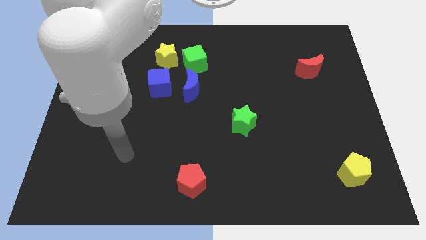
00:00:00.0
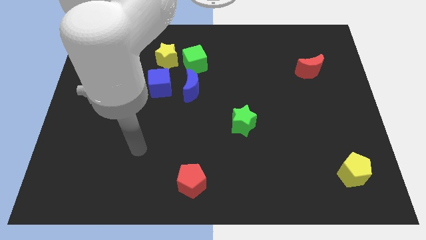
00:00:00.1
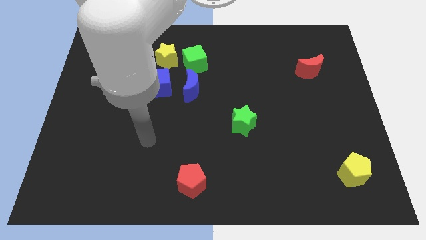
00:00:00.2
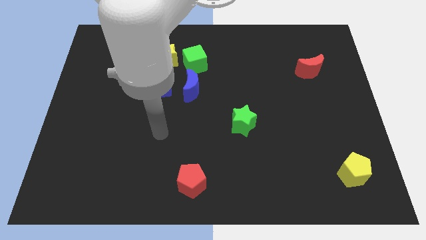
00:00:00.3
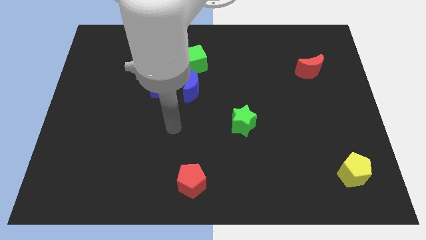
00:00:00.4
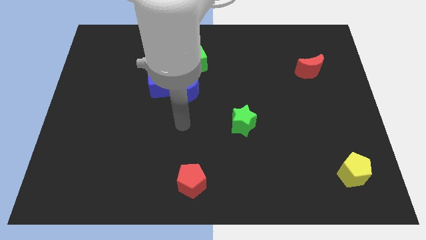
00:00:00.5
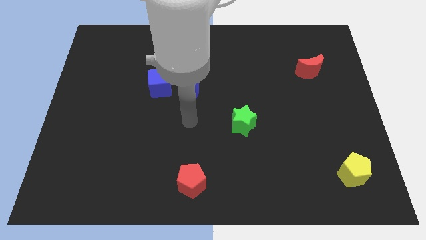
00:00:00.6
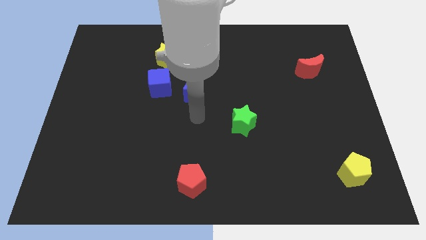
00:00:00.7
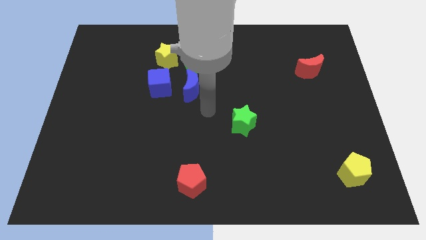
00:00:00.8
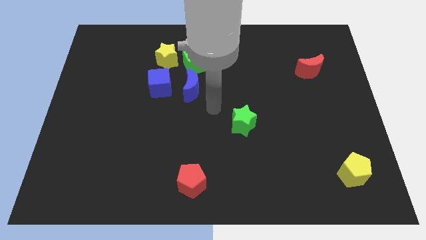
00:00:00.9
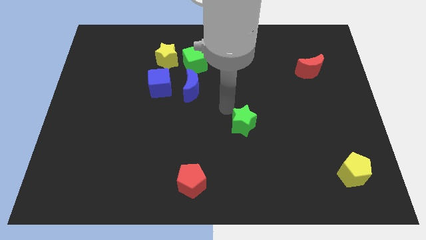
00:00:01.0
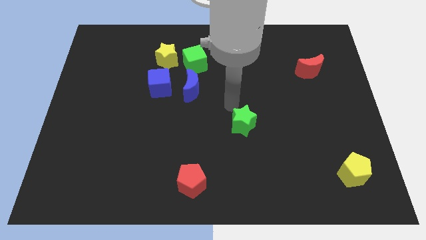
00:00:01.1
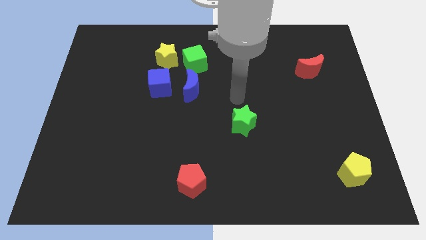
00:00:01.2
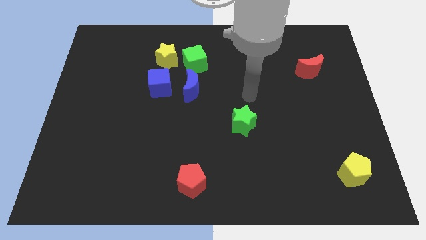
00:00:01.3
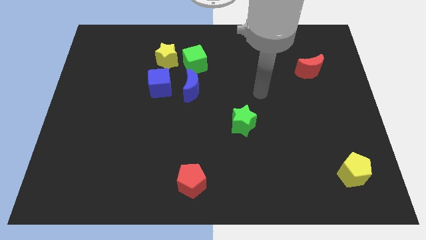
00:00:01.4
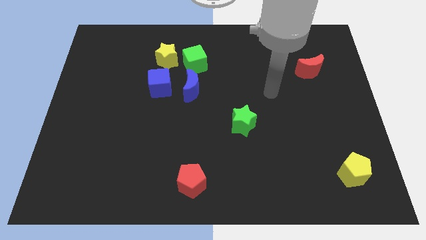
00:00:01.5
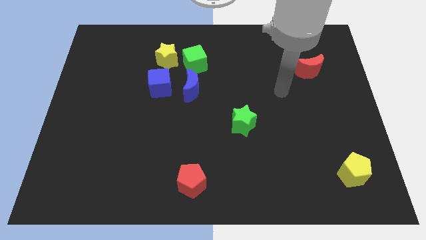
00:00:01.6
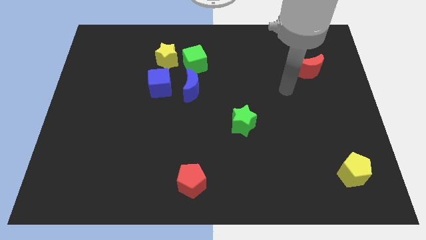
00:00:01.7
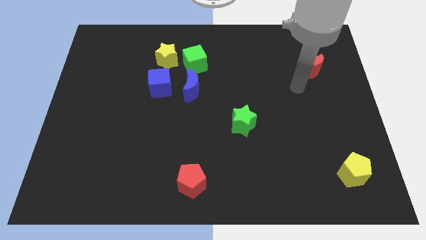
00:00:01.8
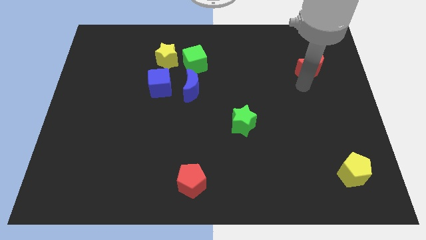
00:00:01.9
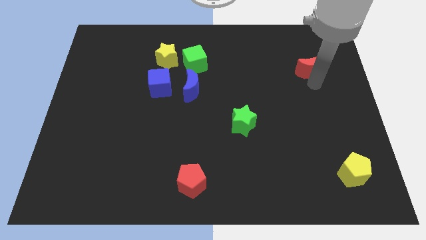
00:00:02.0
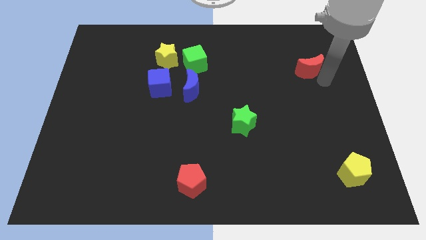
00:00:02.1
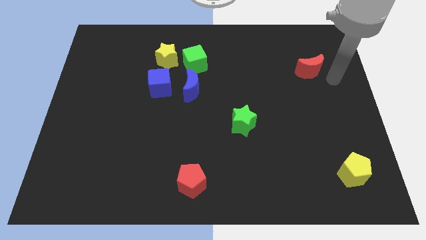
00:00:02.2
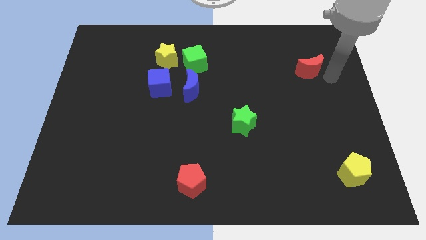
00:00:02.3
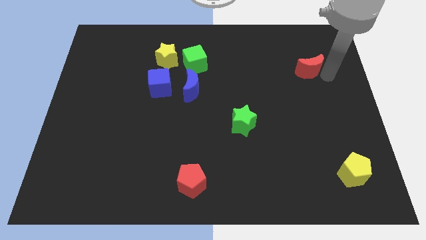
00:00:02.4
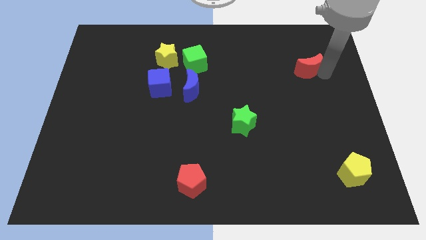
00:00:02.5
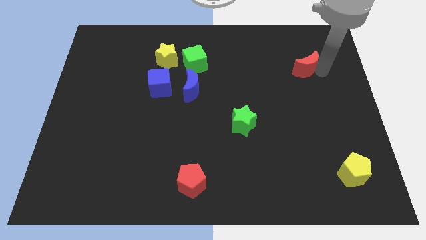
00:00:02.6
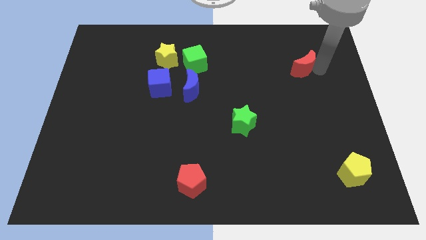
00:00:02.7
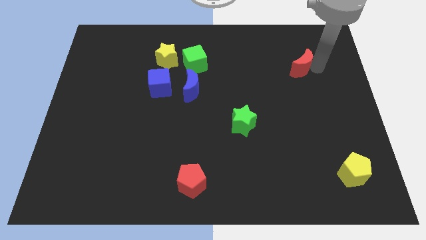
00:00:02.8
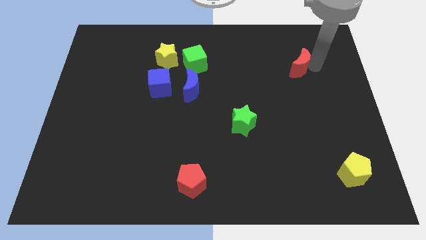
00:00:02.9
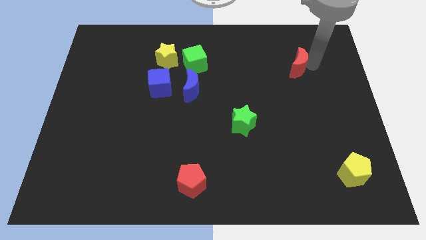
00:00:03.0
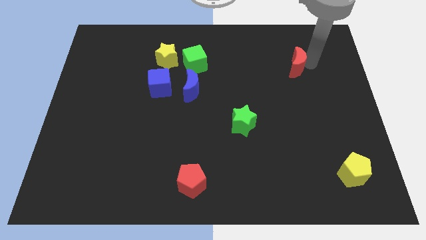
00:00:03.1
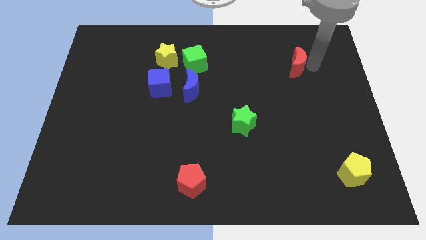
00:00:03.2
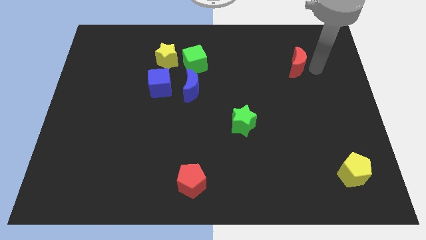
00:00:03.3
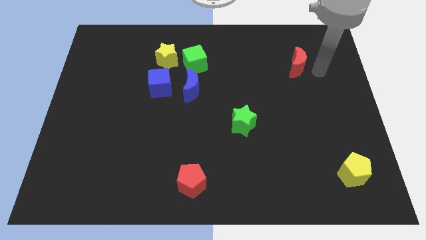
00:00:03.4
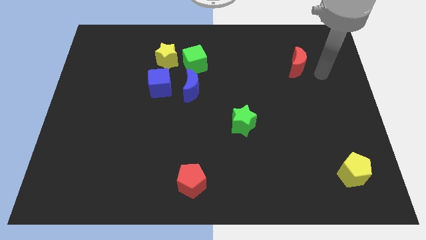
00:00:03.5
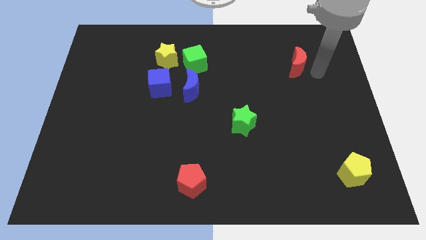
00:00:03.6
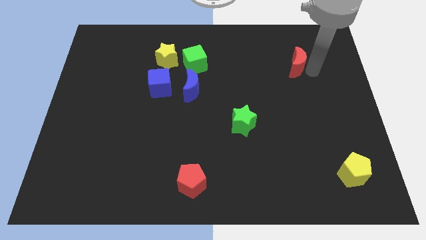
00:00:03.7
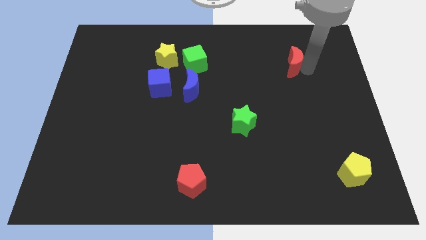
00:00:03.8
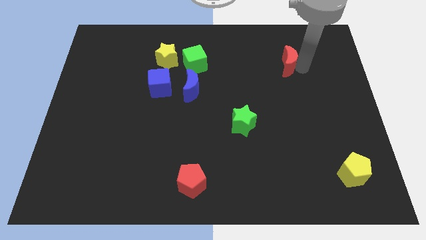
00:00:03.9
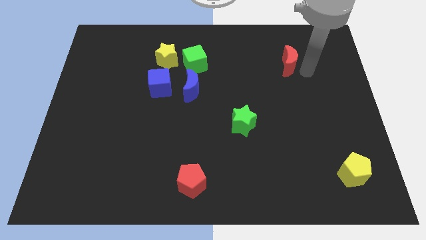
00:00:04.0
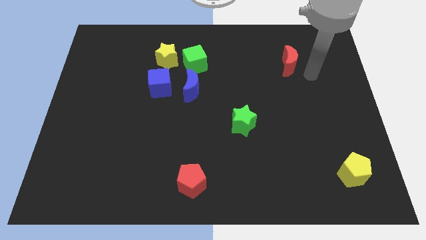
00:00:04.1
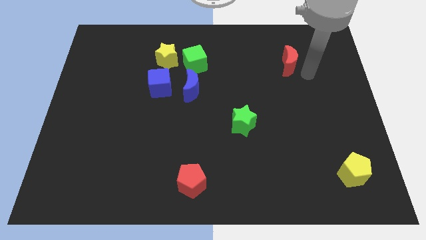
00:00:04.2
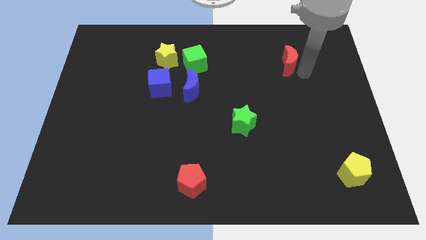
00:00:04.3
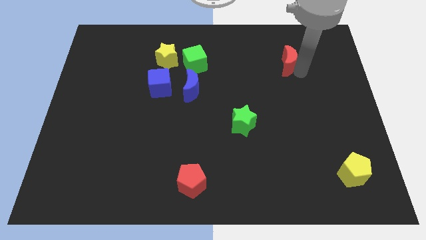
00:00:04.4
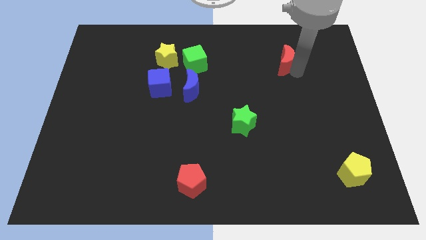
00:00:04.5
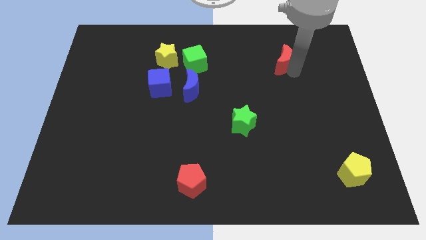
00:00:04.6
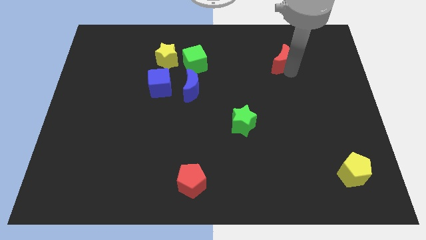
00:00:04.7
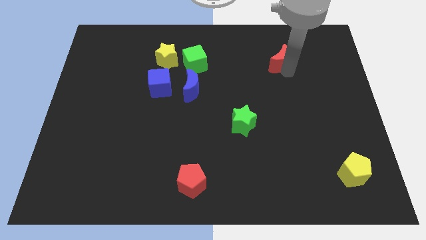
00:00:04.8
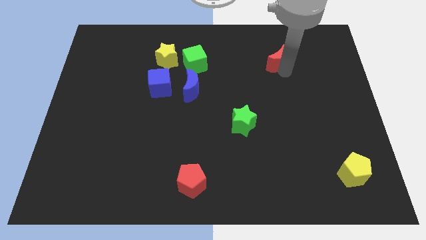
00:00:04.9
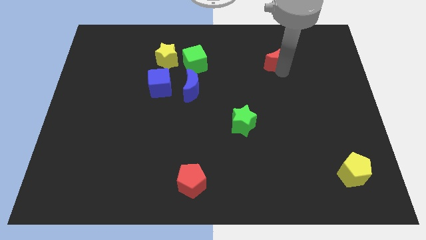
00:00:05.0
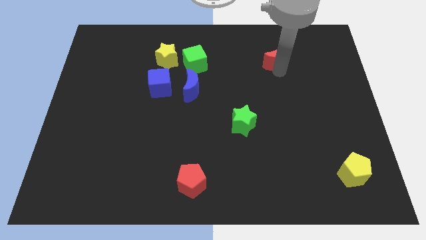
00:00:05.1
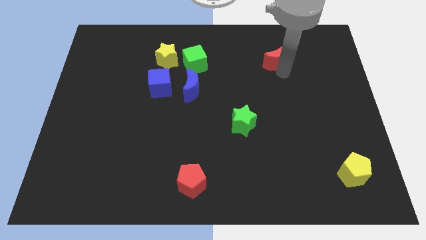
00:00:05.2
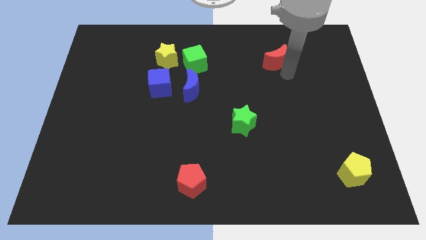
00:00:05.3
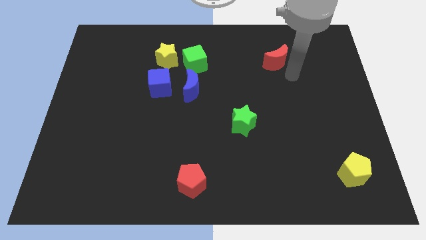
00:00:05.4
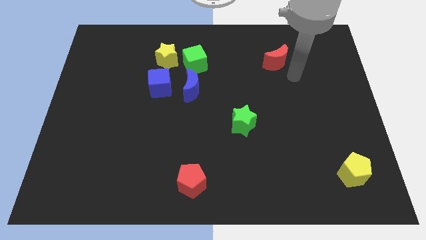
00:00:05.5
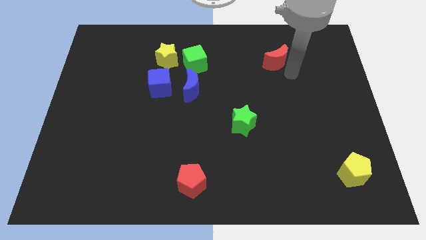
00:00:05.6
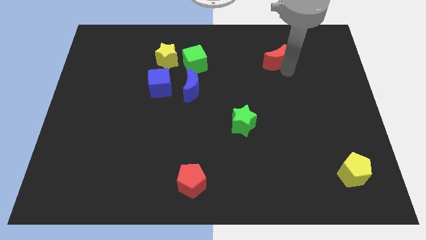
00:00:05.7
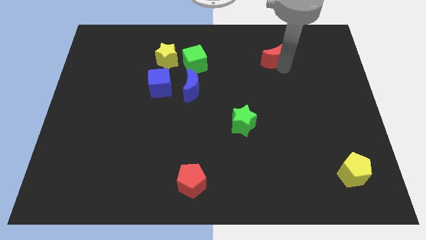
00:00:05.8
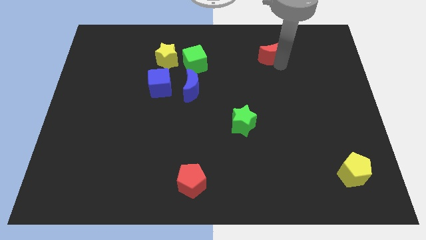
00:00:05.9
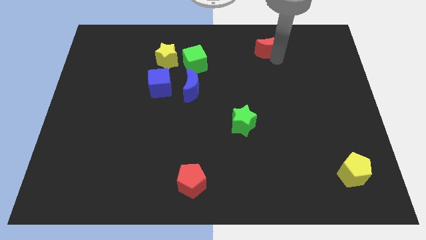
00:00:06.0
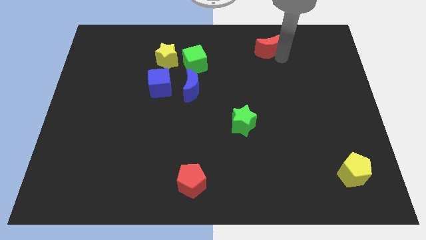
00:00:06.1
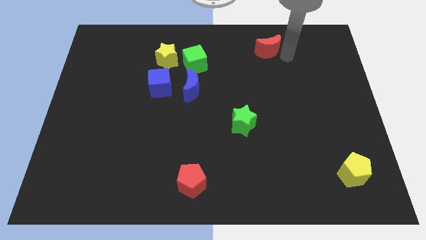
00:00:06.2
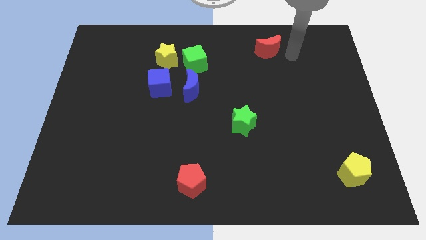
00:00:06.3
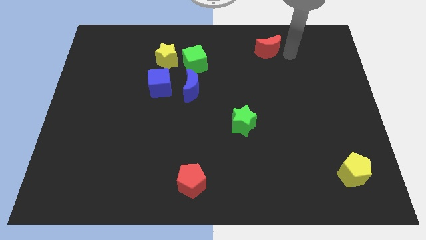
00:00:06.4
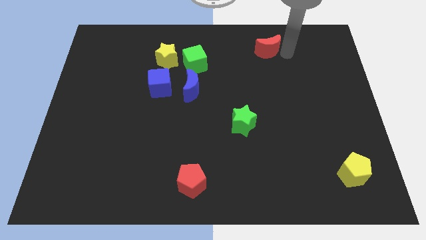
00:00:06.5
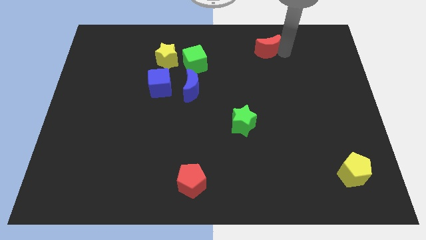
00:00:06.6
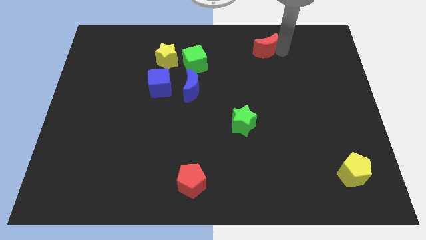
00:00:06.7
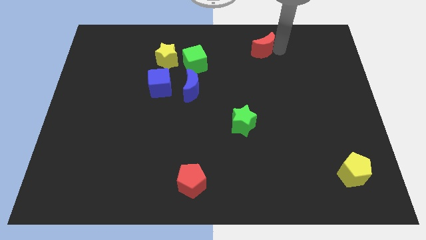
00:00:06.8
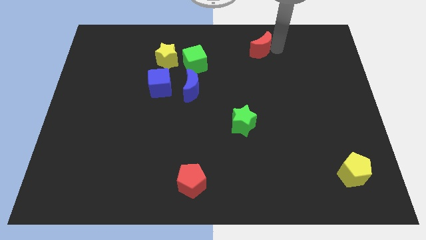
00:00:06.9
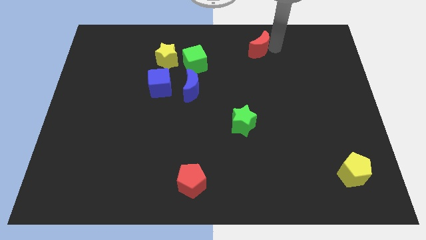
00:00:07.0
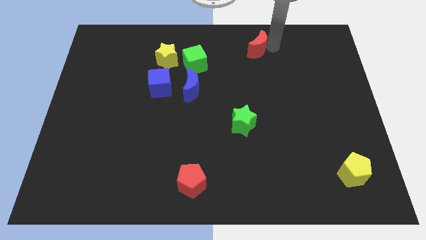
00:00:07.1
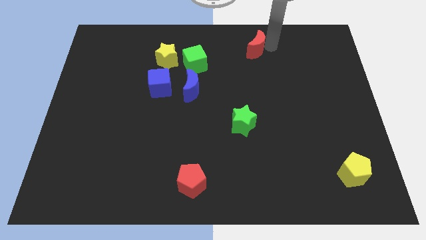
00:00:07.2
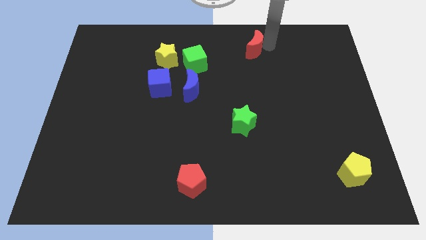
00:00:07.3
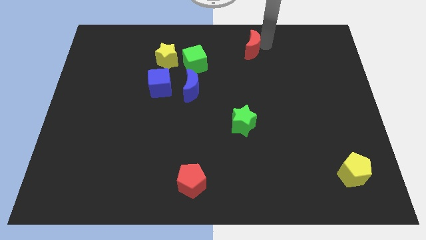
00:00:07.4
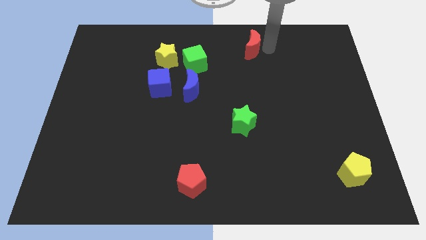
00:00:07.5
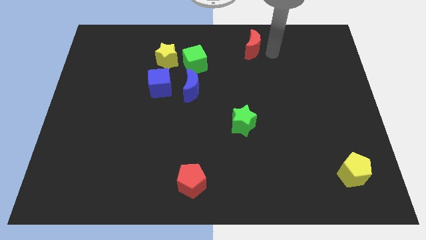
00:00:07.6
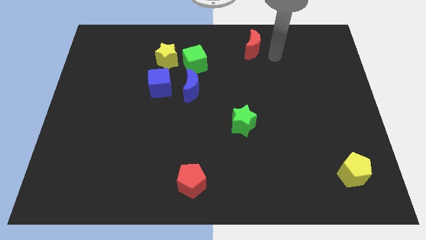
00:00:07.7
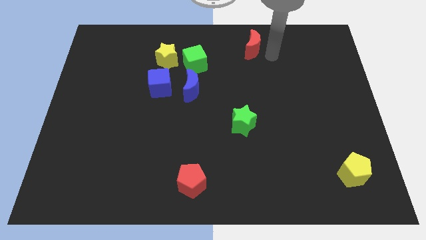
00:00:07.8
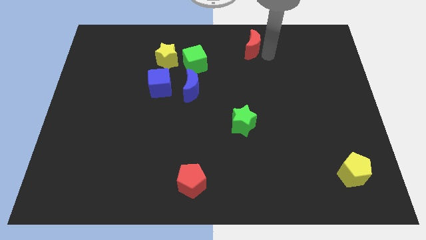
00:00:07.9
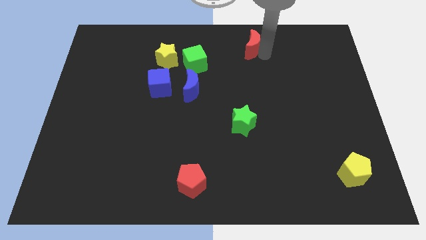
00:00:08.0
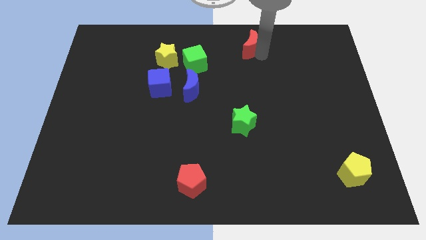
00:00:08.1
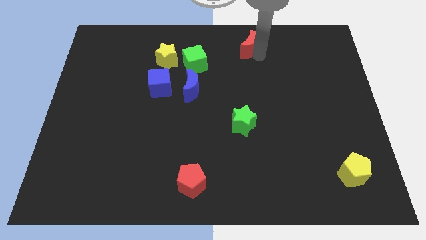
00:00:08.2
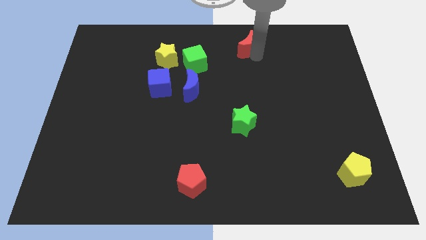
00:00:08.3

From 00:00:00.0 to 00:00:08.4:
move the red moon to the towards your base
